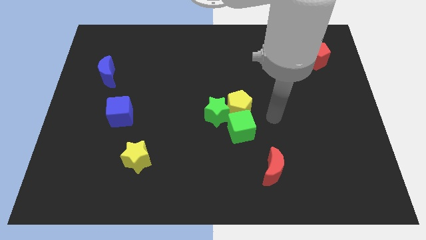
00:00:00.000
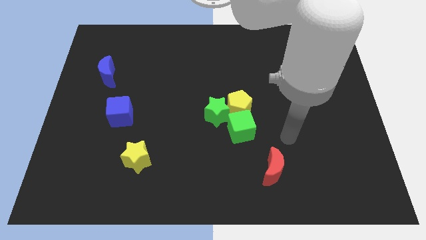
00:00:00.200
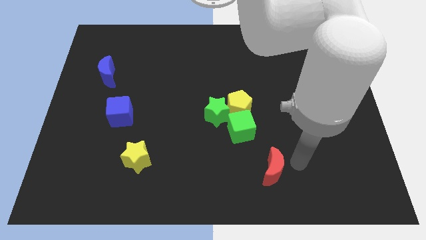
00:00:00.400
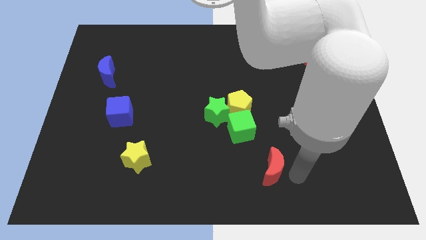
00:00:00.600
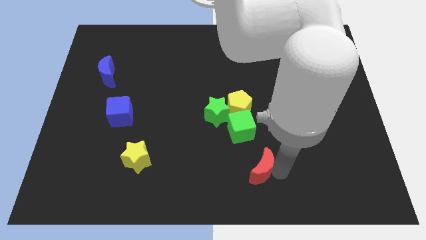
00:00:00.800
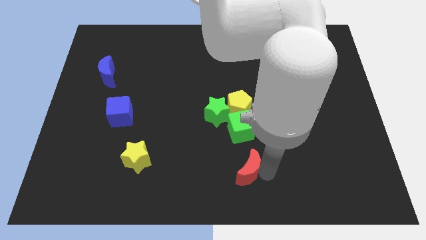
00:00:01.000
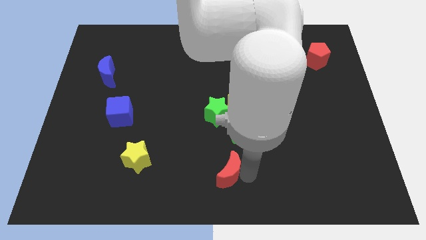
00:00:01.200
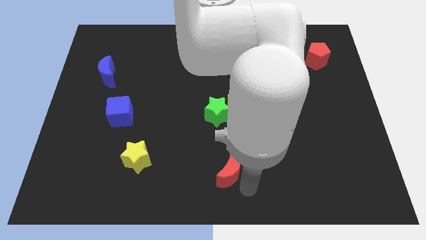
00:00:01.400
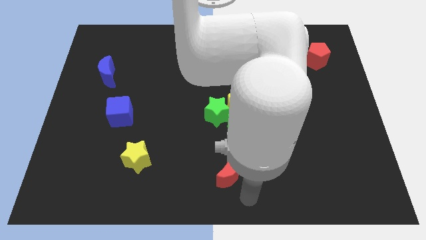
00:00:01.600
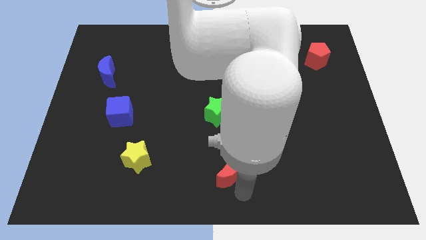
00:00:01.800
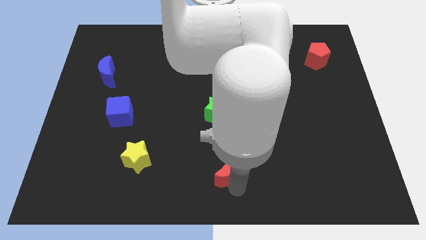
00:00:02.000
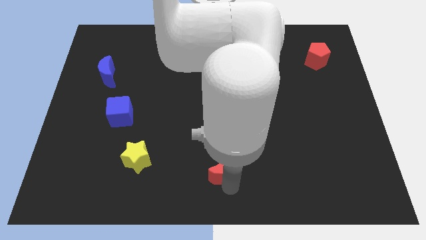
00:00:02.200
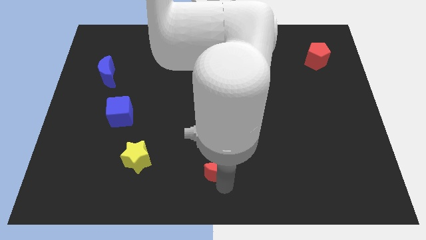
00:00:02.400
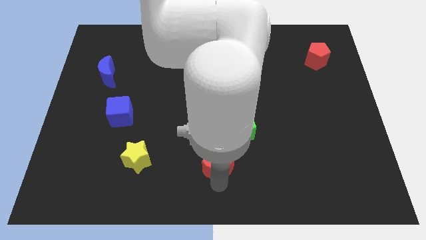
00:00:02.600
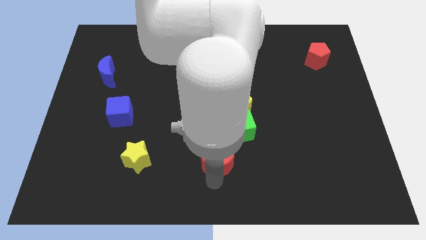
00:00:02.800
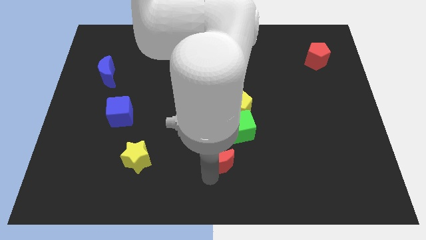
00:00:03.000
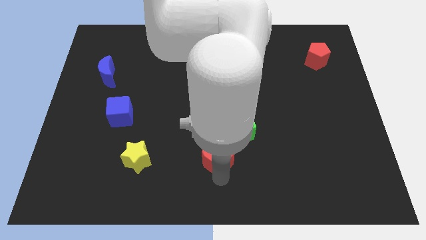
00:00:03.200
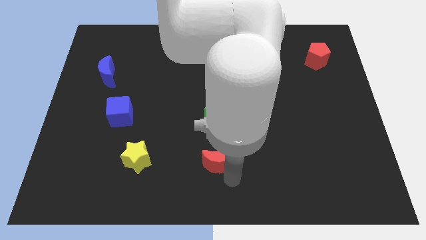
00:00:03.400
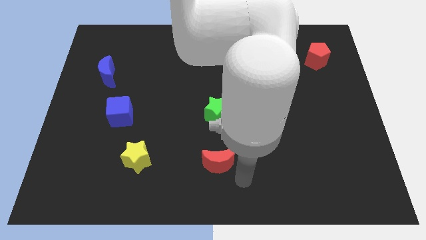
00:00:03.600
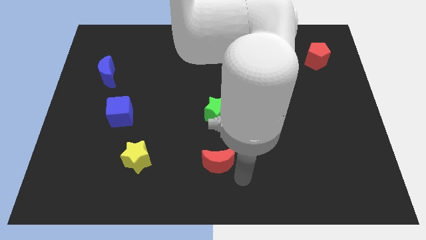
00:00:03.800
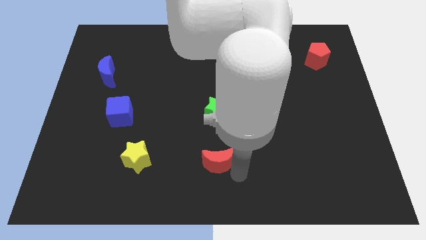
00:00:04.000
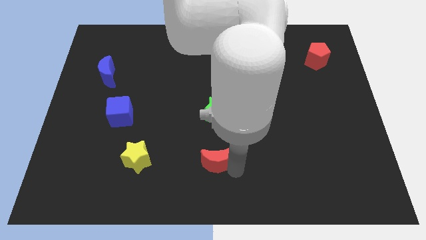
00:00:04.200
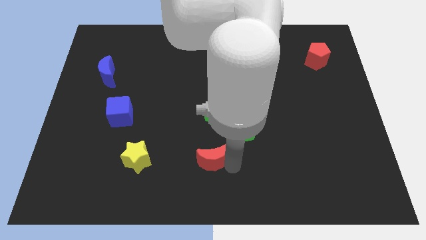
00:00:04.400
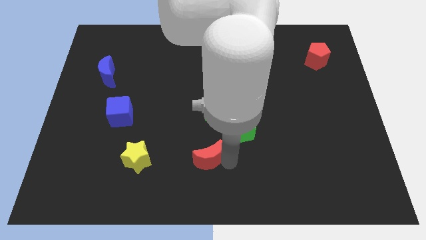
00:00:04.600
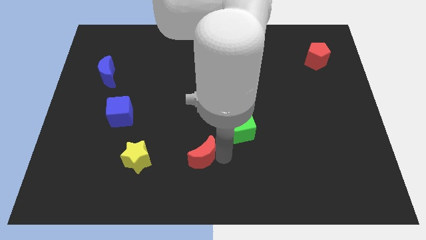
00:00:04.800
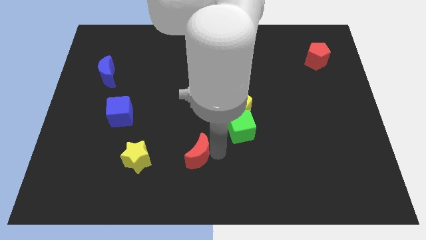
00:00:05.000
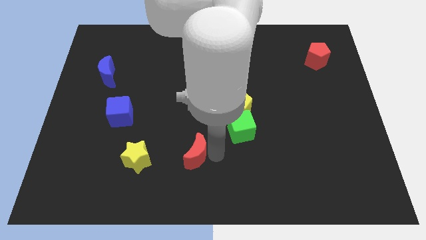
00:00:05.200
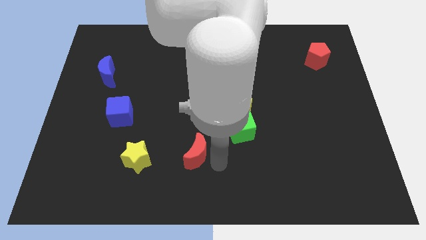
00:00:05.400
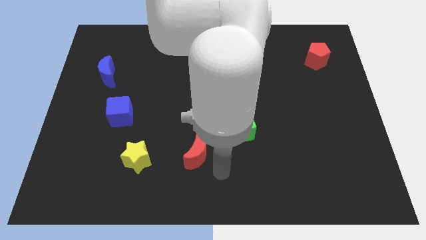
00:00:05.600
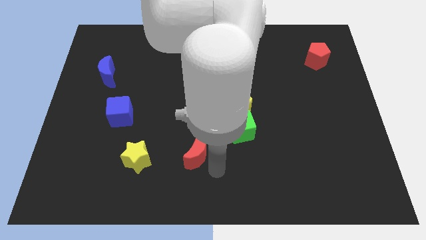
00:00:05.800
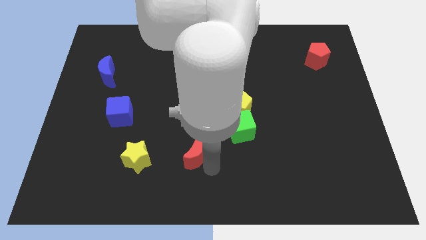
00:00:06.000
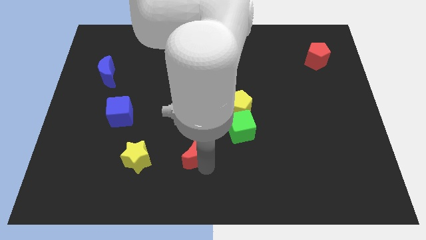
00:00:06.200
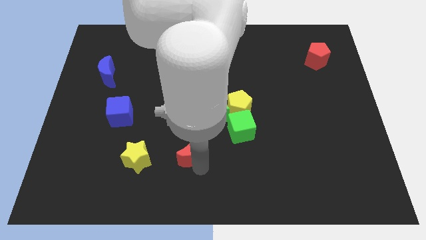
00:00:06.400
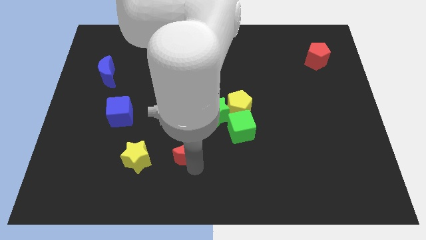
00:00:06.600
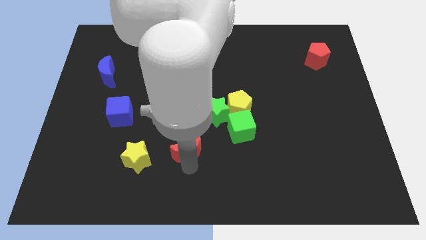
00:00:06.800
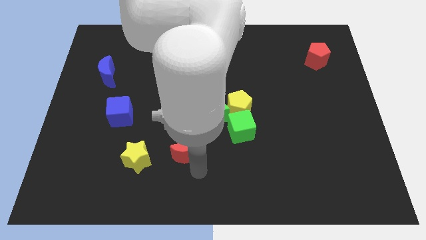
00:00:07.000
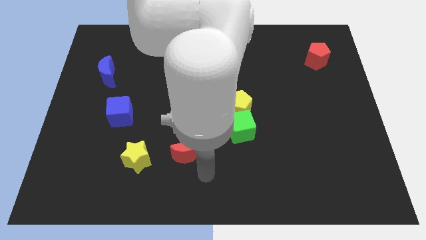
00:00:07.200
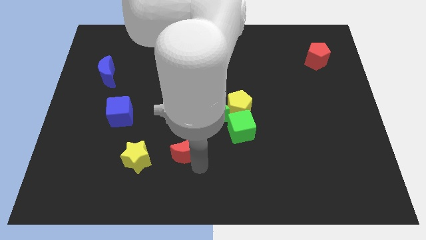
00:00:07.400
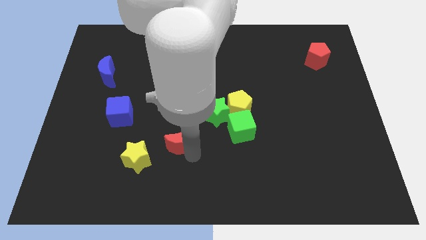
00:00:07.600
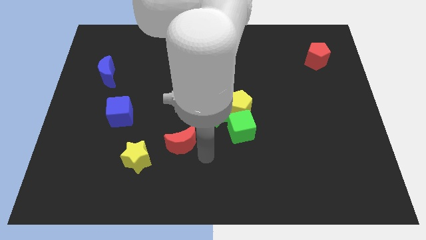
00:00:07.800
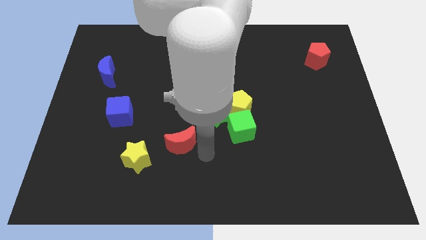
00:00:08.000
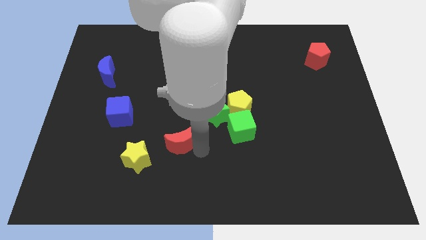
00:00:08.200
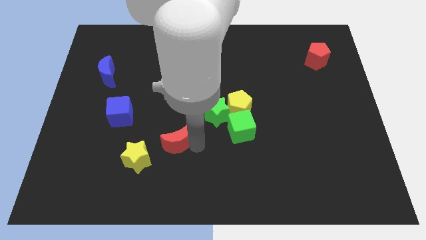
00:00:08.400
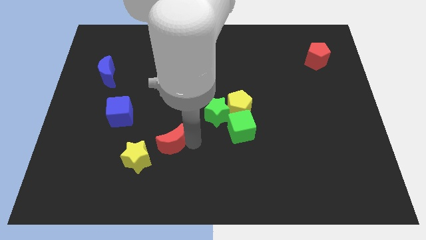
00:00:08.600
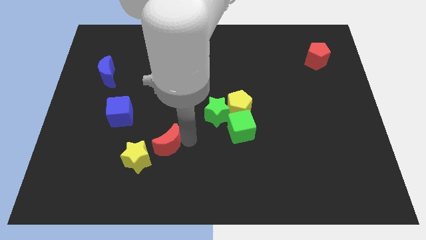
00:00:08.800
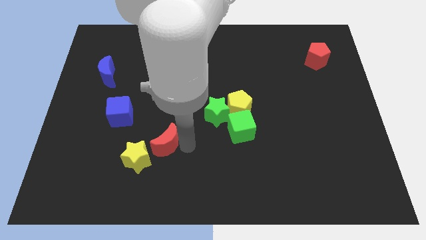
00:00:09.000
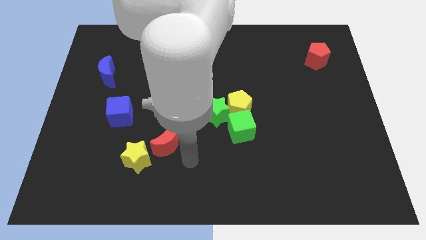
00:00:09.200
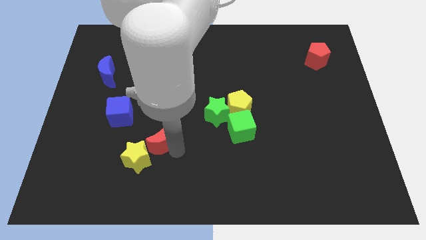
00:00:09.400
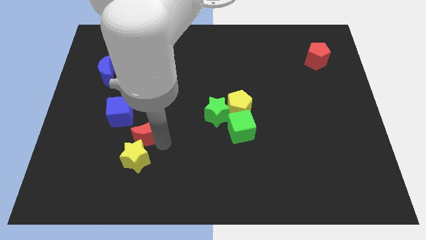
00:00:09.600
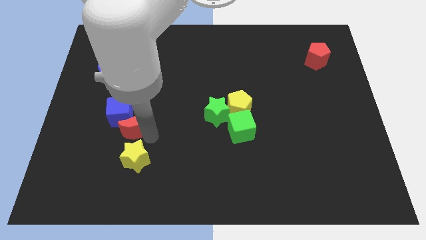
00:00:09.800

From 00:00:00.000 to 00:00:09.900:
move the red moon close to the blue cube

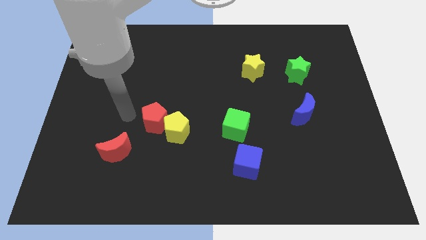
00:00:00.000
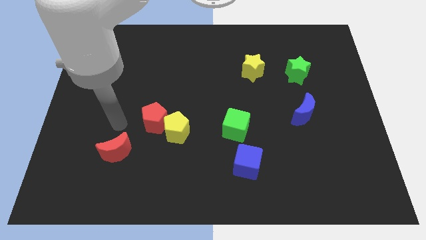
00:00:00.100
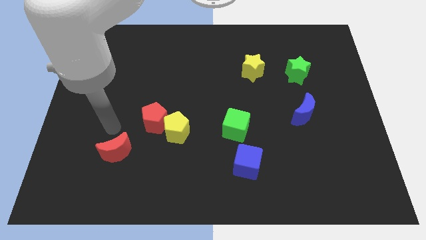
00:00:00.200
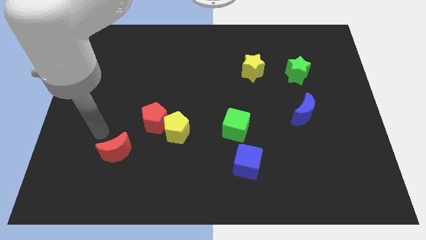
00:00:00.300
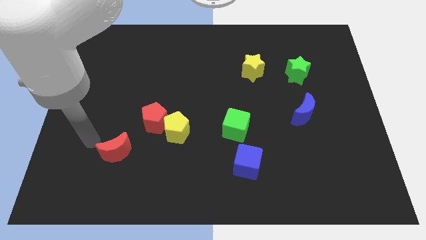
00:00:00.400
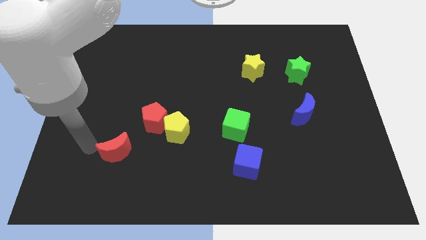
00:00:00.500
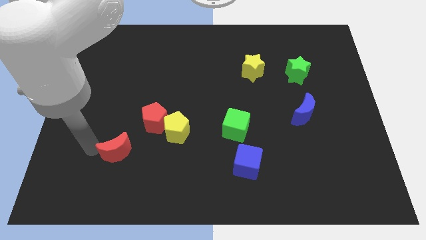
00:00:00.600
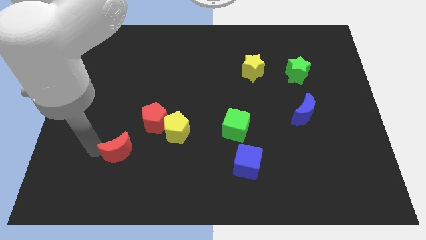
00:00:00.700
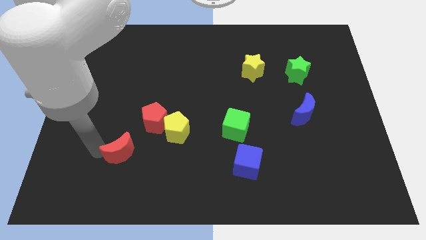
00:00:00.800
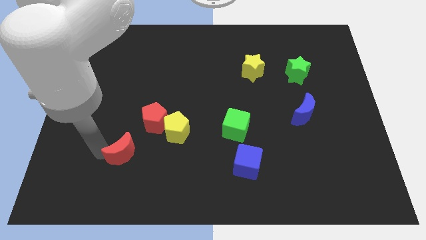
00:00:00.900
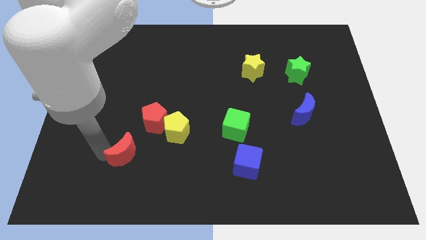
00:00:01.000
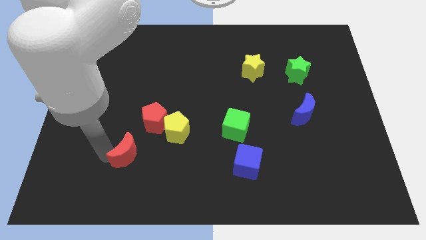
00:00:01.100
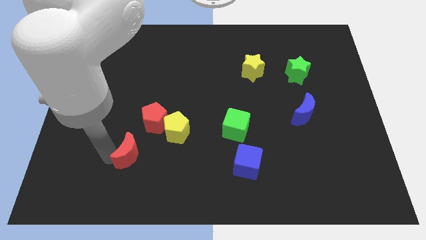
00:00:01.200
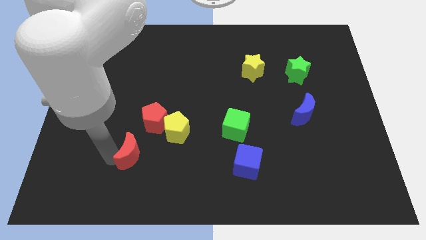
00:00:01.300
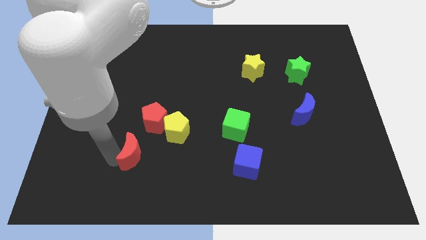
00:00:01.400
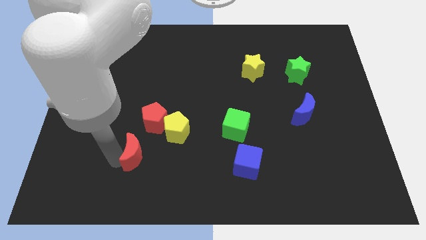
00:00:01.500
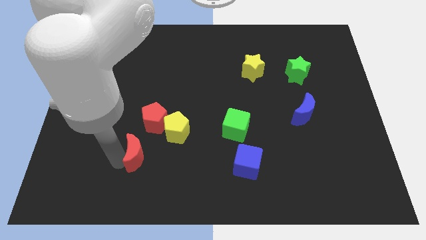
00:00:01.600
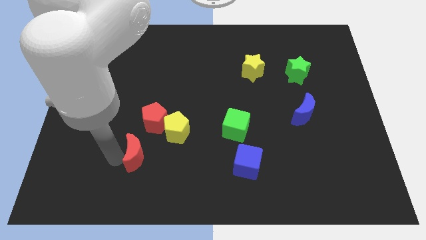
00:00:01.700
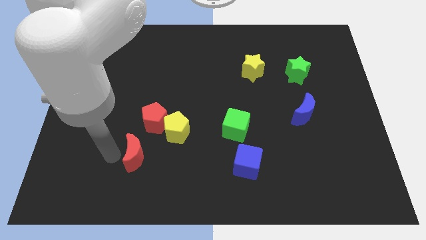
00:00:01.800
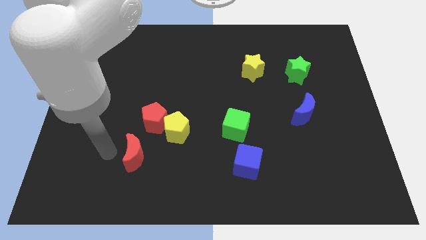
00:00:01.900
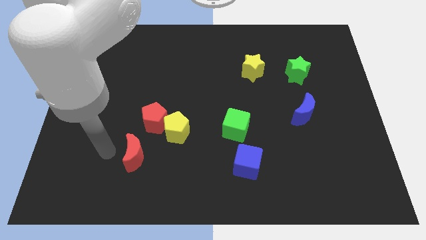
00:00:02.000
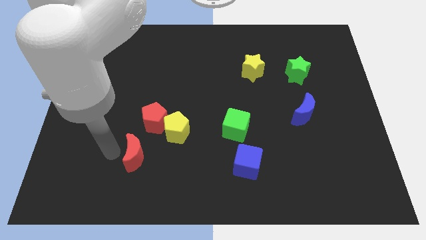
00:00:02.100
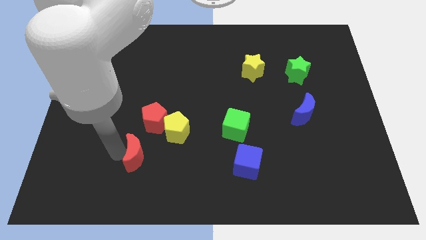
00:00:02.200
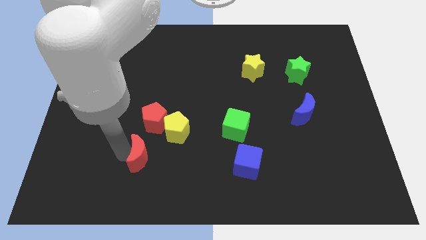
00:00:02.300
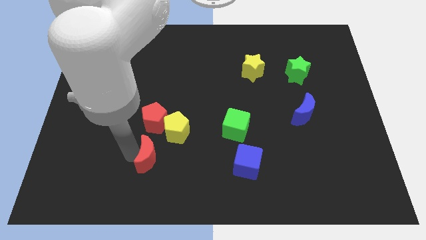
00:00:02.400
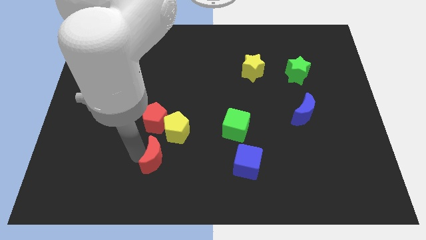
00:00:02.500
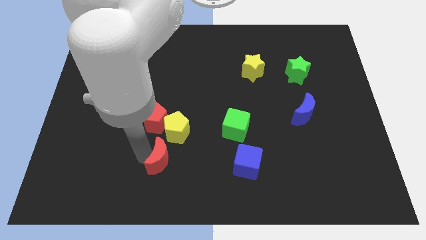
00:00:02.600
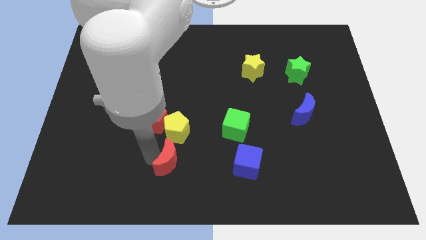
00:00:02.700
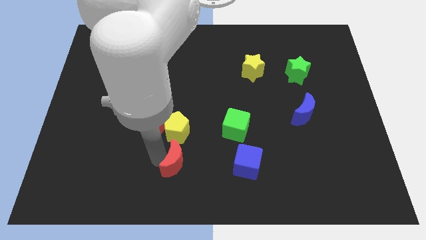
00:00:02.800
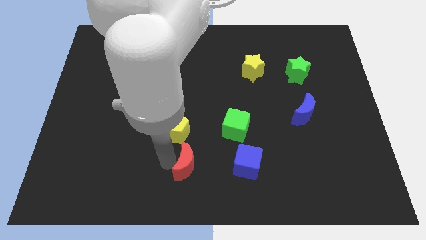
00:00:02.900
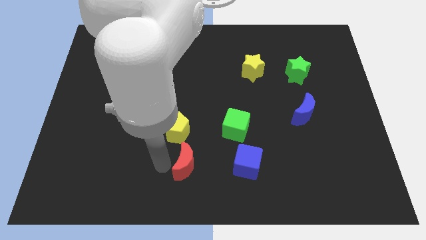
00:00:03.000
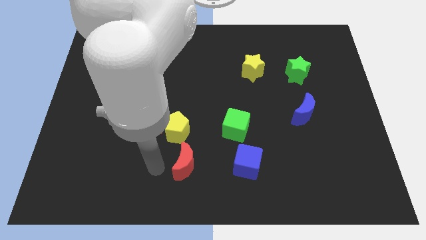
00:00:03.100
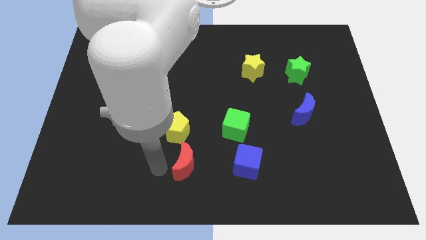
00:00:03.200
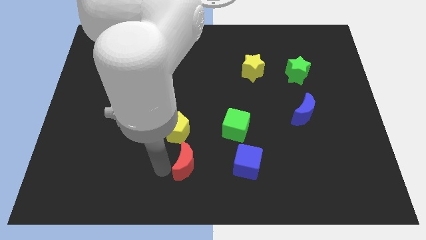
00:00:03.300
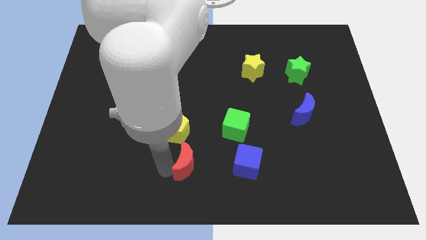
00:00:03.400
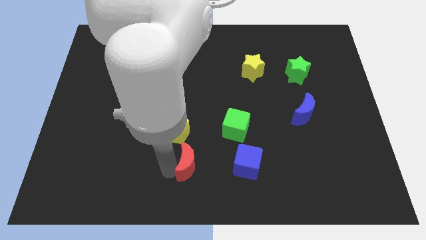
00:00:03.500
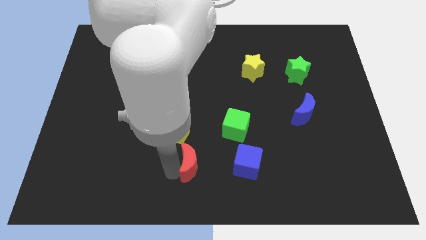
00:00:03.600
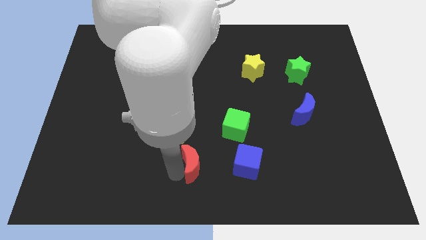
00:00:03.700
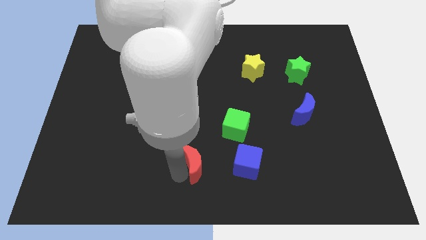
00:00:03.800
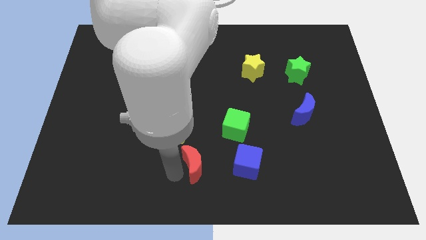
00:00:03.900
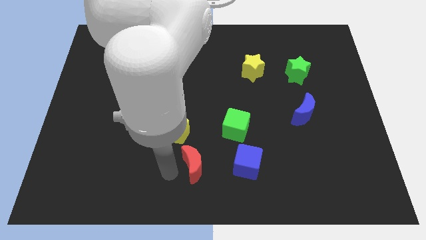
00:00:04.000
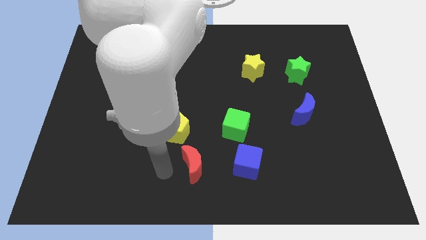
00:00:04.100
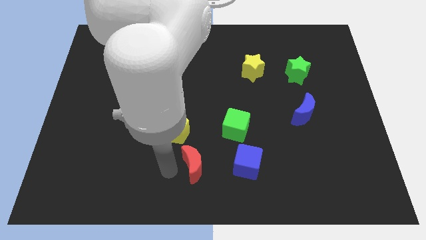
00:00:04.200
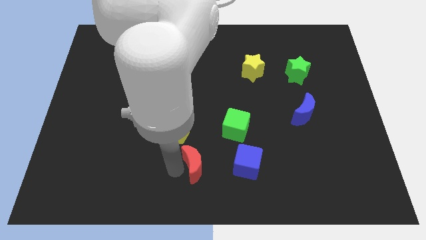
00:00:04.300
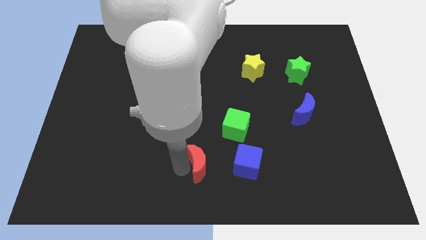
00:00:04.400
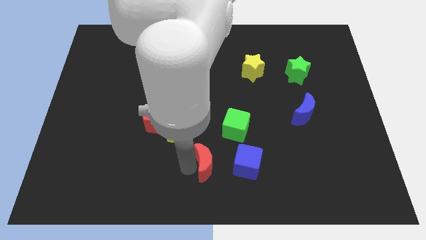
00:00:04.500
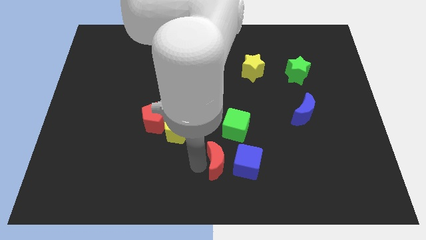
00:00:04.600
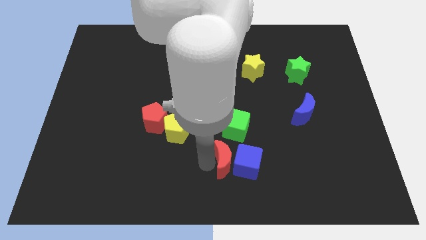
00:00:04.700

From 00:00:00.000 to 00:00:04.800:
put the red moon towards the blue cube
